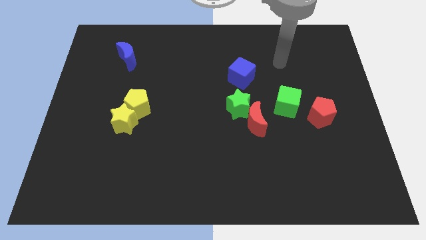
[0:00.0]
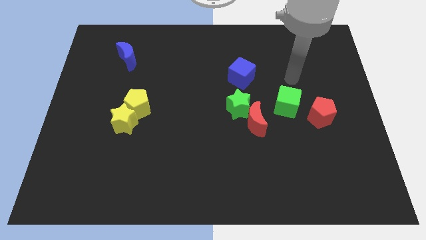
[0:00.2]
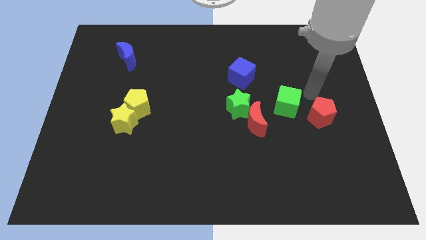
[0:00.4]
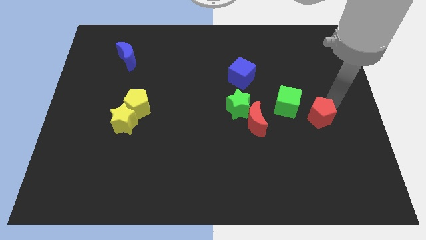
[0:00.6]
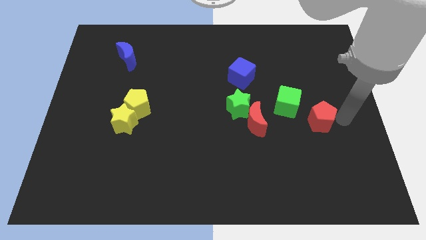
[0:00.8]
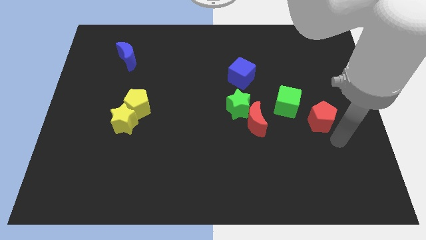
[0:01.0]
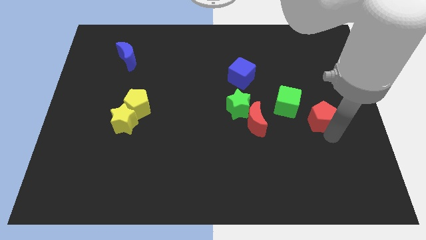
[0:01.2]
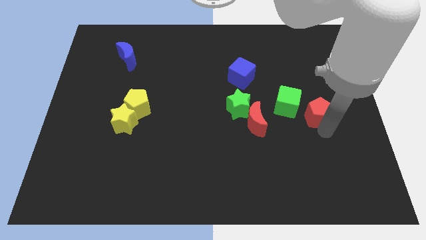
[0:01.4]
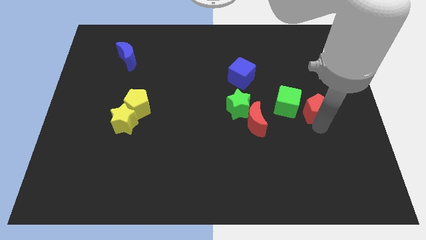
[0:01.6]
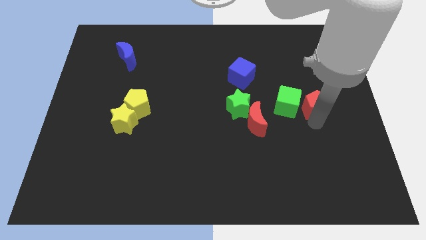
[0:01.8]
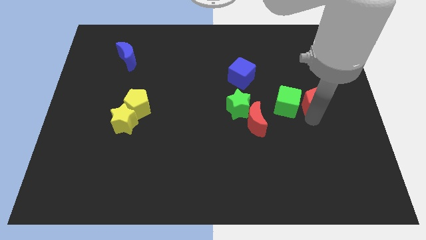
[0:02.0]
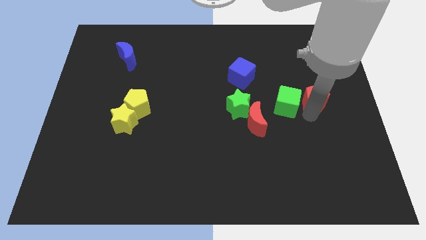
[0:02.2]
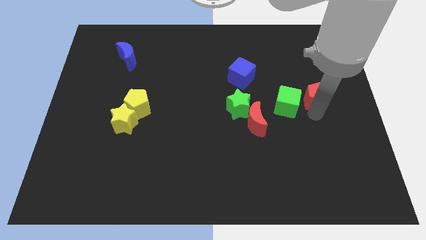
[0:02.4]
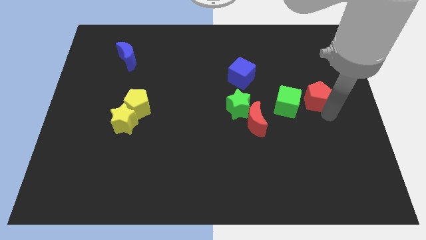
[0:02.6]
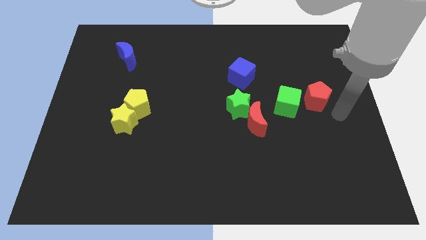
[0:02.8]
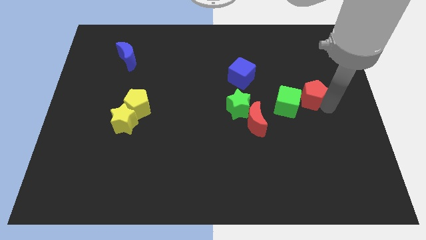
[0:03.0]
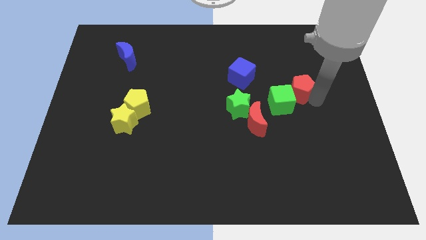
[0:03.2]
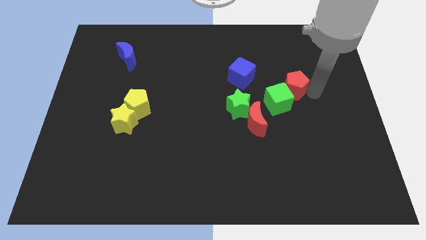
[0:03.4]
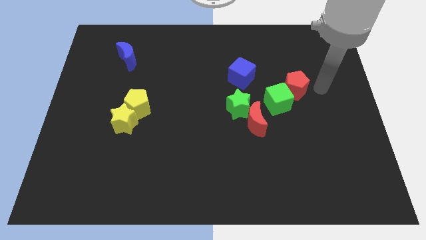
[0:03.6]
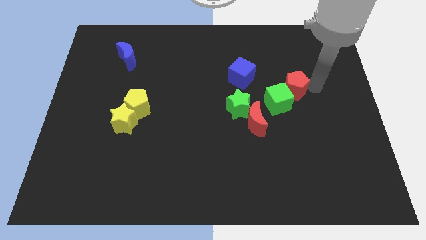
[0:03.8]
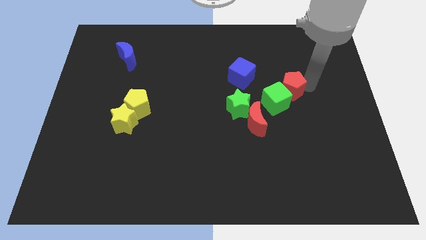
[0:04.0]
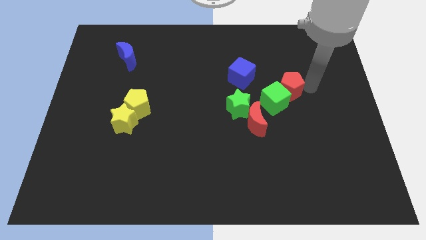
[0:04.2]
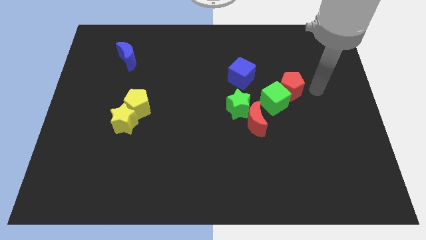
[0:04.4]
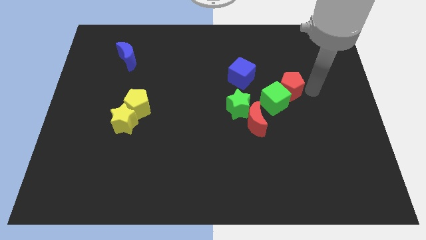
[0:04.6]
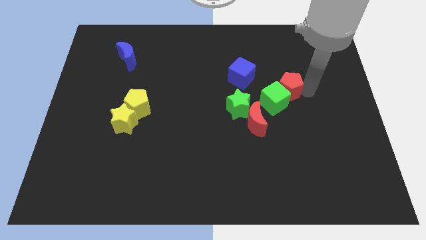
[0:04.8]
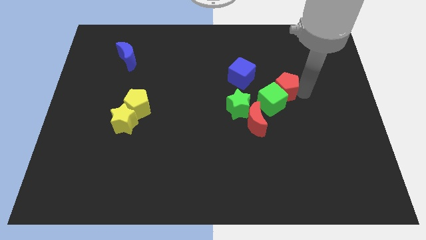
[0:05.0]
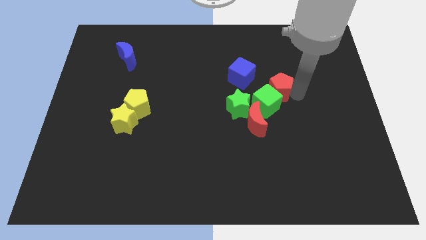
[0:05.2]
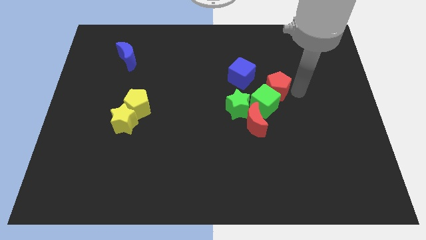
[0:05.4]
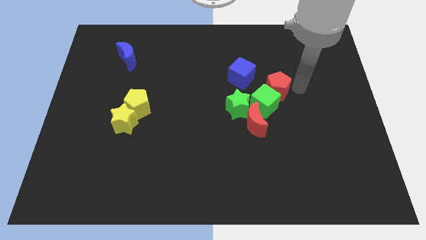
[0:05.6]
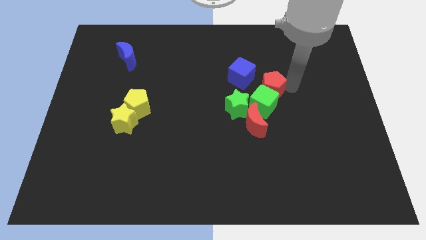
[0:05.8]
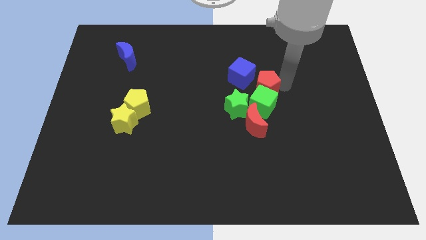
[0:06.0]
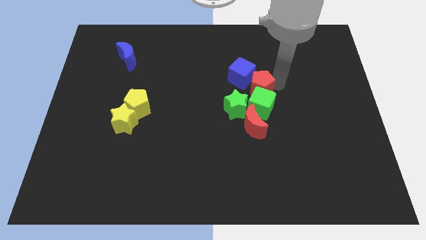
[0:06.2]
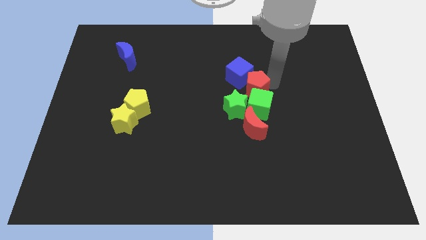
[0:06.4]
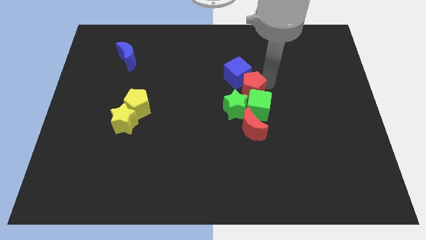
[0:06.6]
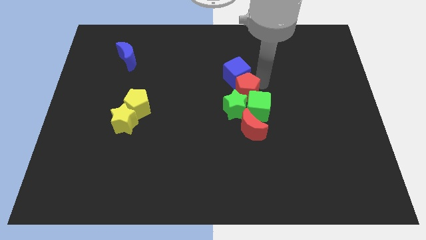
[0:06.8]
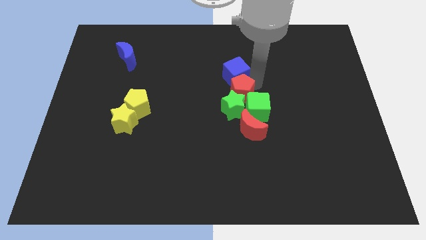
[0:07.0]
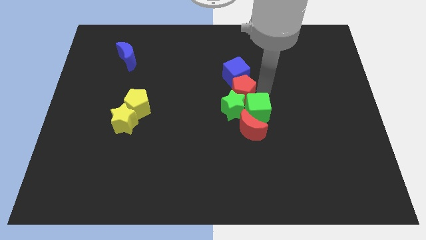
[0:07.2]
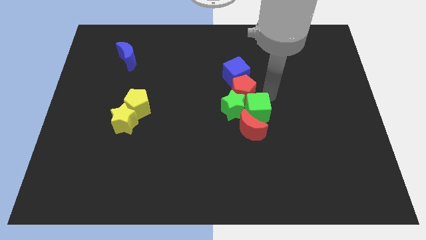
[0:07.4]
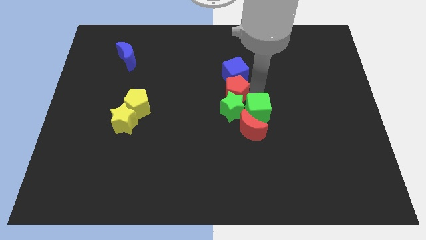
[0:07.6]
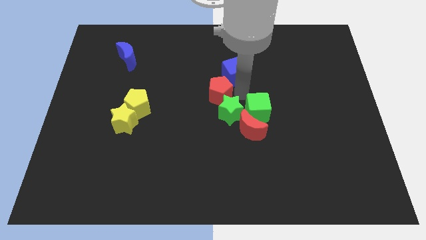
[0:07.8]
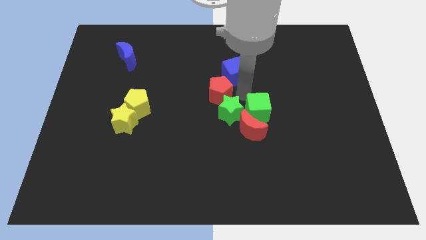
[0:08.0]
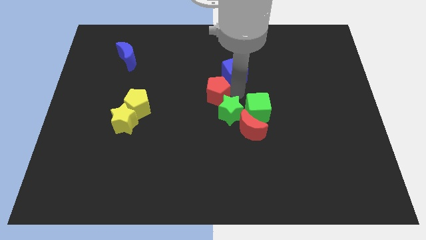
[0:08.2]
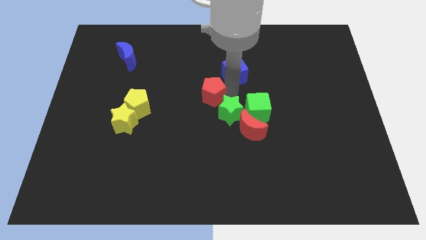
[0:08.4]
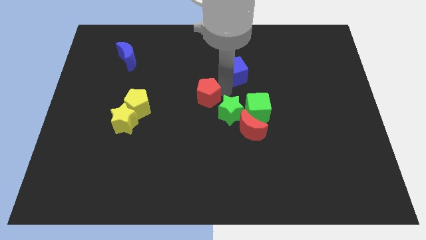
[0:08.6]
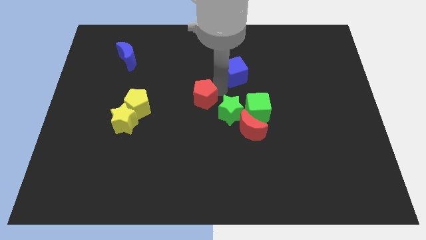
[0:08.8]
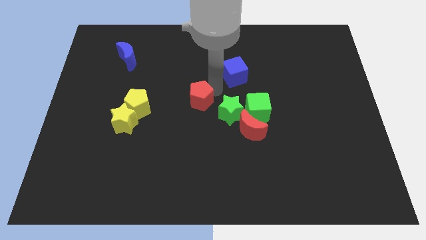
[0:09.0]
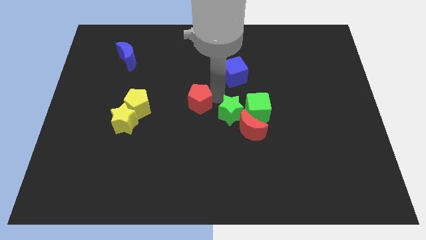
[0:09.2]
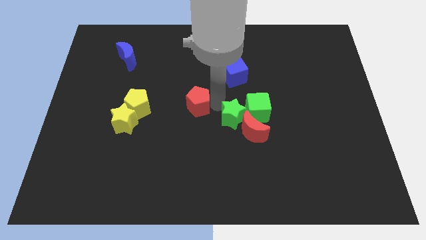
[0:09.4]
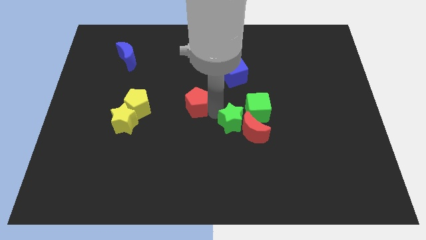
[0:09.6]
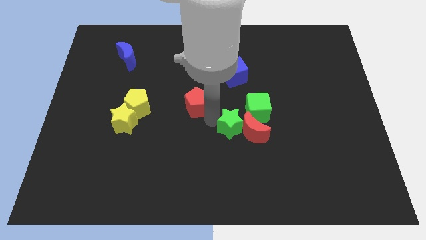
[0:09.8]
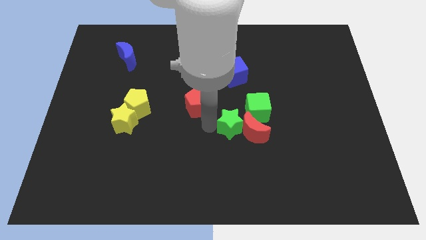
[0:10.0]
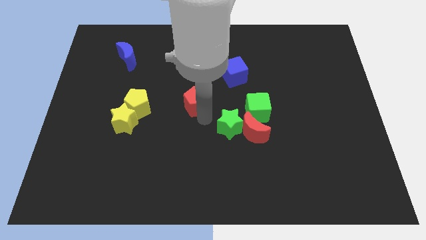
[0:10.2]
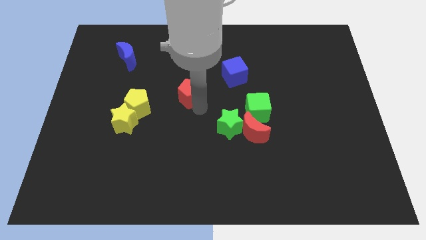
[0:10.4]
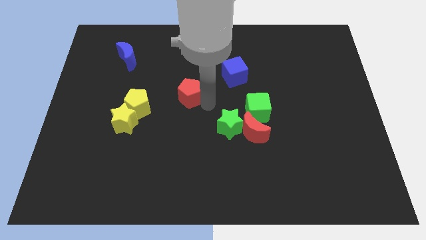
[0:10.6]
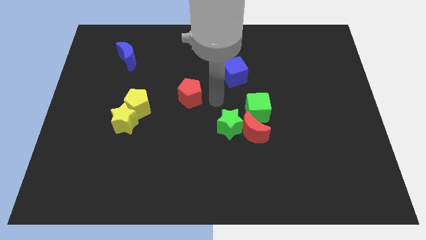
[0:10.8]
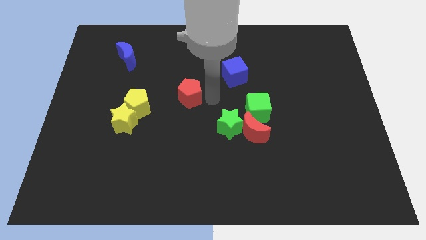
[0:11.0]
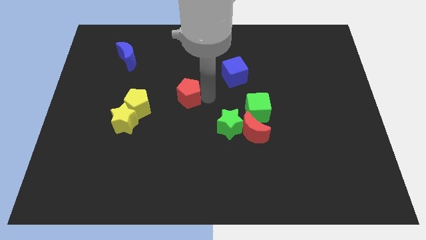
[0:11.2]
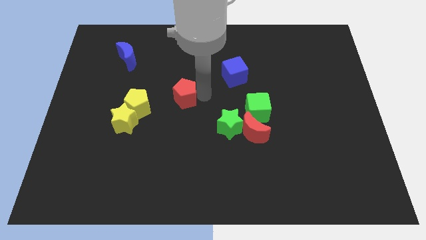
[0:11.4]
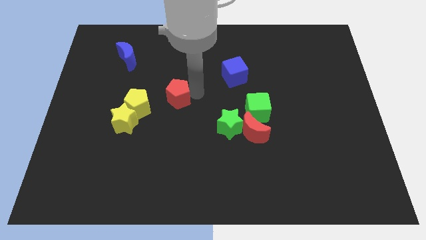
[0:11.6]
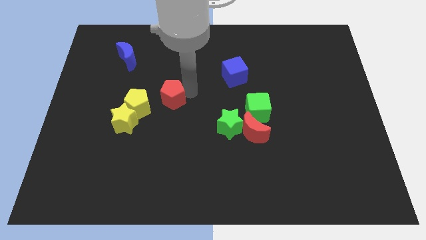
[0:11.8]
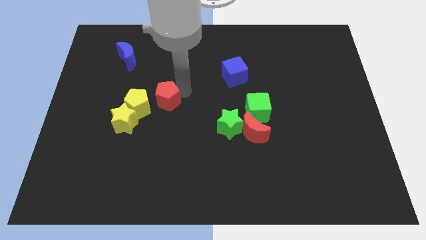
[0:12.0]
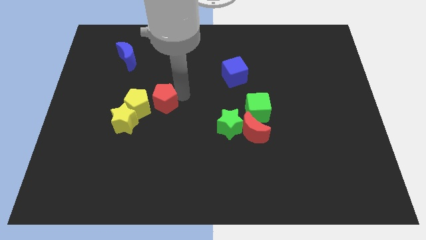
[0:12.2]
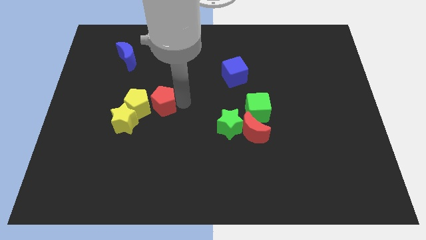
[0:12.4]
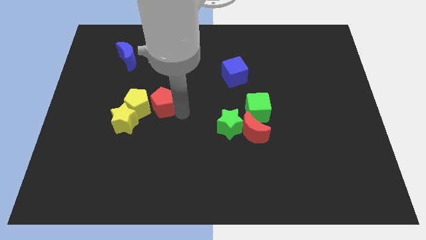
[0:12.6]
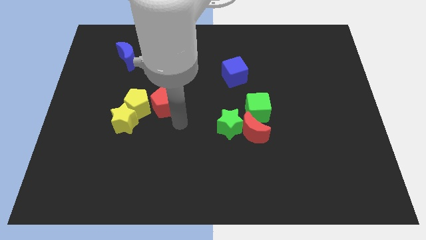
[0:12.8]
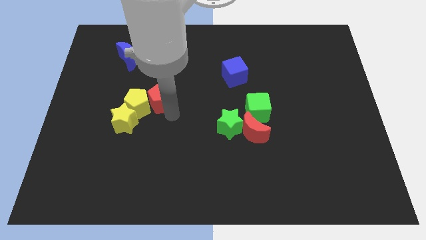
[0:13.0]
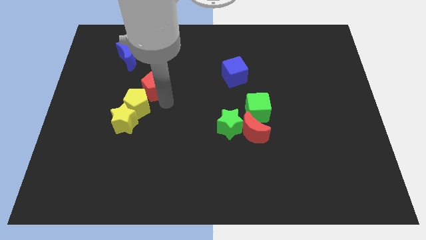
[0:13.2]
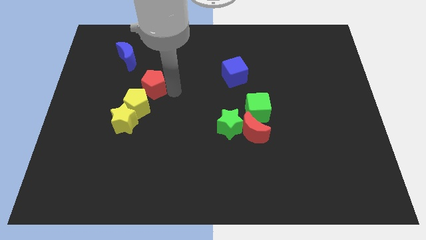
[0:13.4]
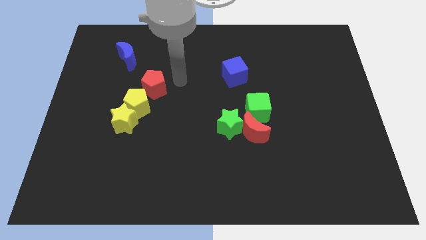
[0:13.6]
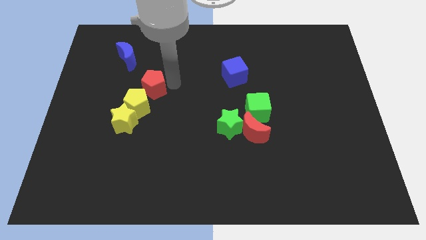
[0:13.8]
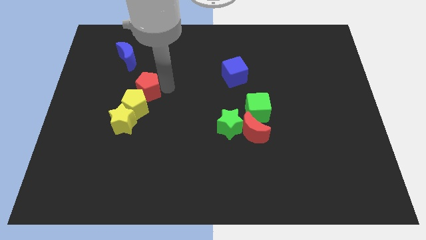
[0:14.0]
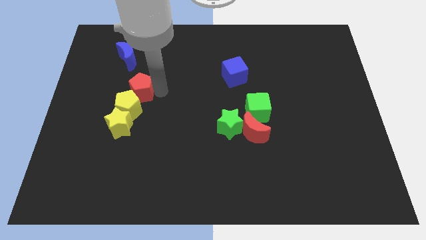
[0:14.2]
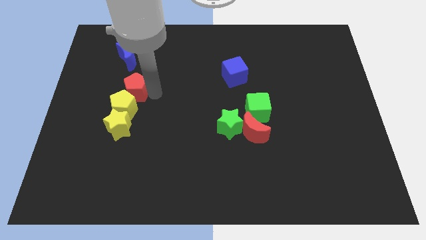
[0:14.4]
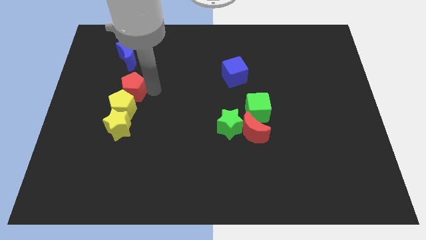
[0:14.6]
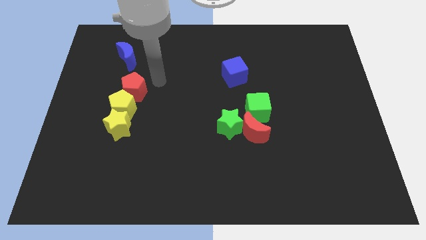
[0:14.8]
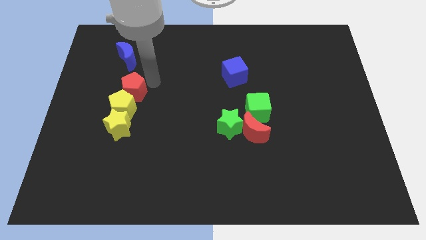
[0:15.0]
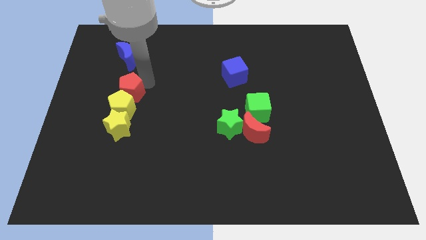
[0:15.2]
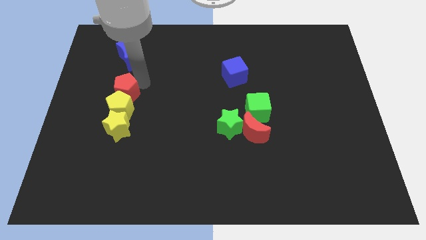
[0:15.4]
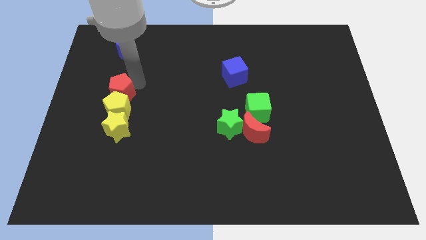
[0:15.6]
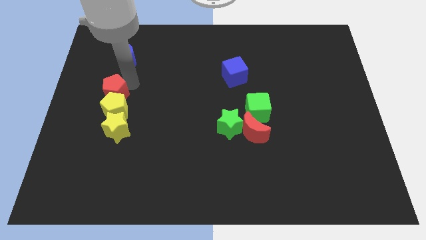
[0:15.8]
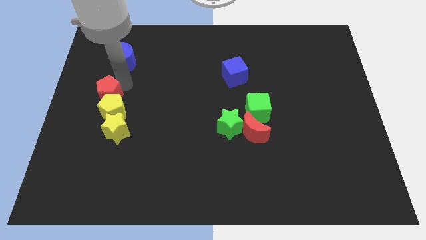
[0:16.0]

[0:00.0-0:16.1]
slide the red pentagon to the left side
